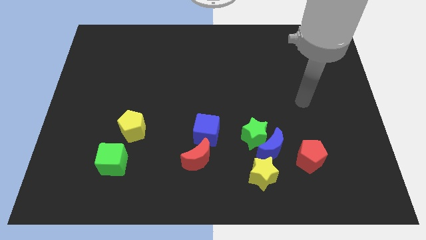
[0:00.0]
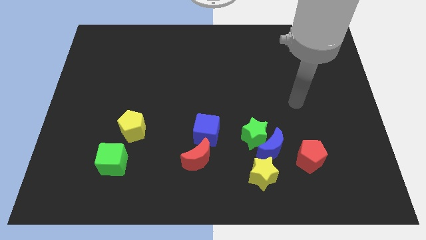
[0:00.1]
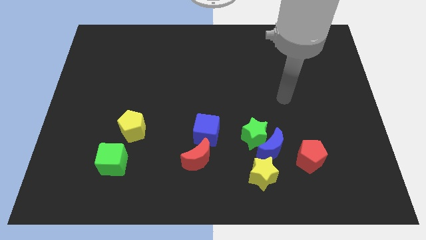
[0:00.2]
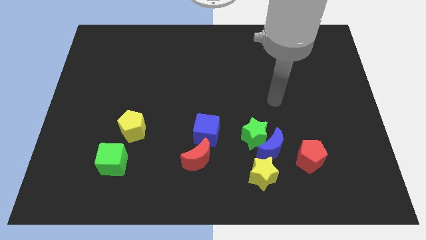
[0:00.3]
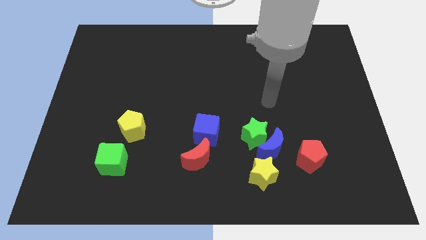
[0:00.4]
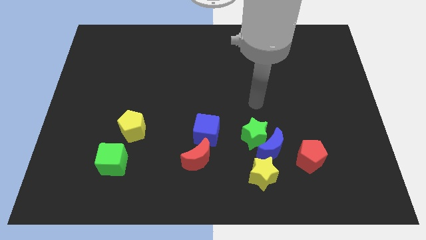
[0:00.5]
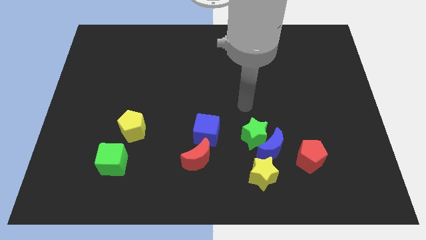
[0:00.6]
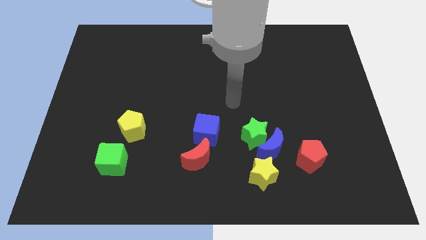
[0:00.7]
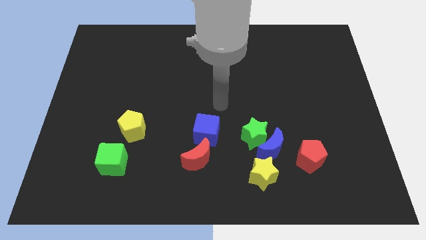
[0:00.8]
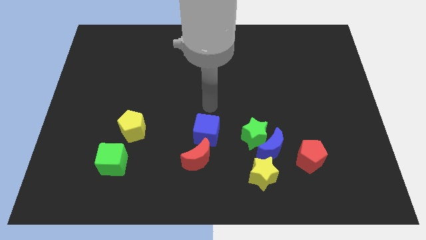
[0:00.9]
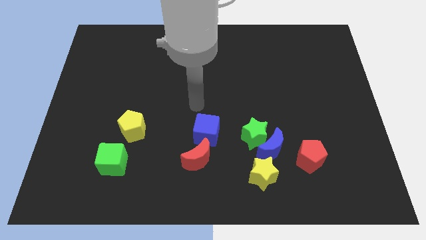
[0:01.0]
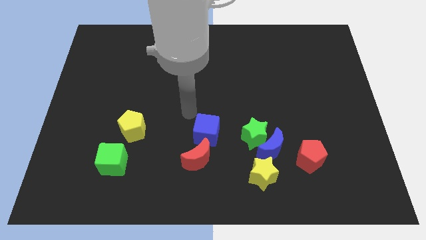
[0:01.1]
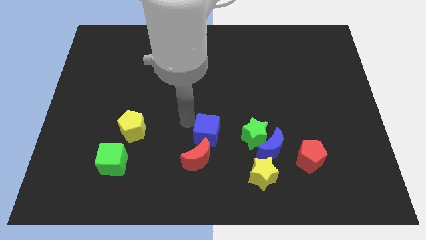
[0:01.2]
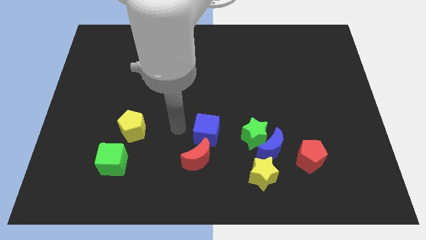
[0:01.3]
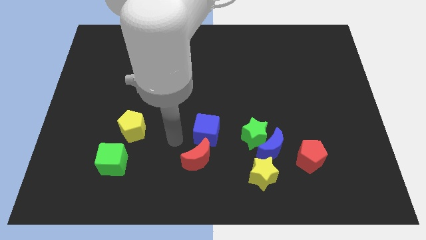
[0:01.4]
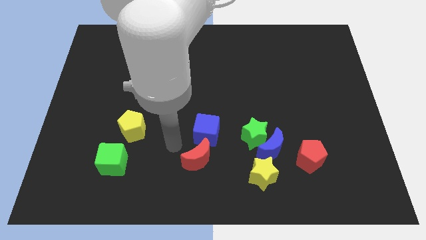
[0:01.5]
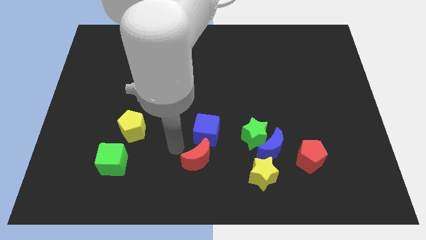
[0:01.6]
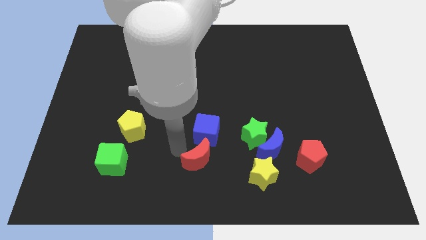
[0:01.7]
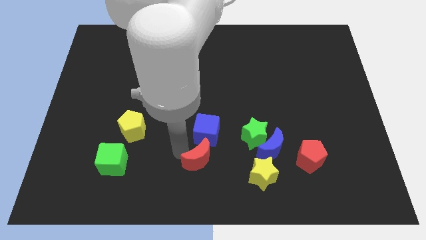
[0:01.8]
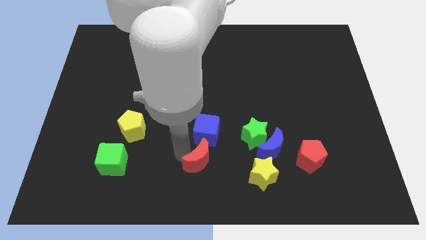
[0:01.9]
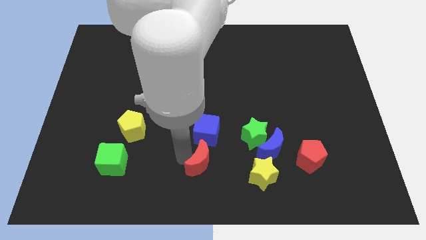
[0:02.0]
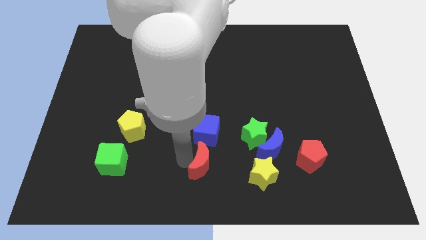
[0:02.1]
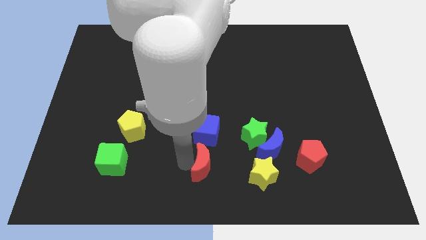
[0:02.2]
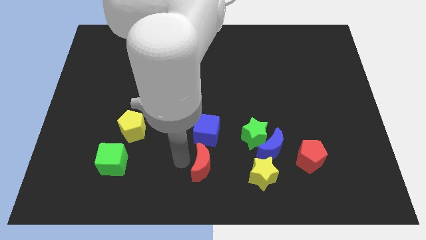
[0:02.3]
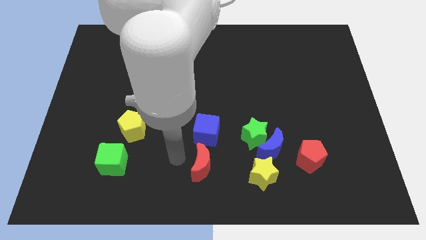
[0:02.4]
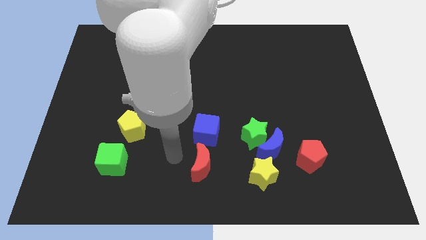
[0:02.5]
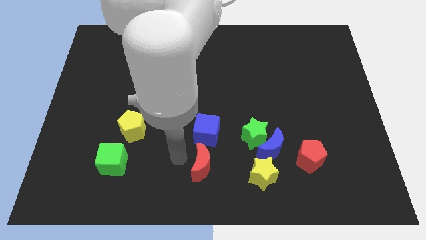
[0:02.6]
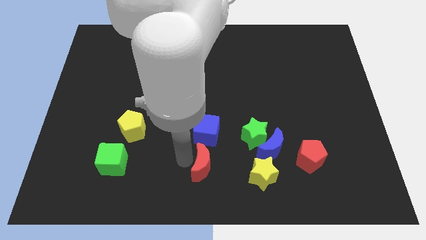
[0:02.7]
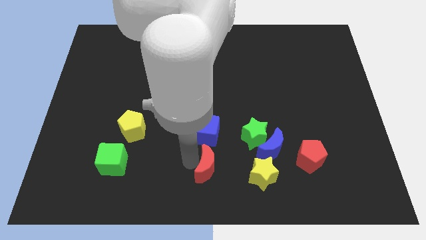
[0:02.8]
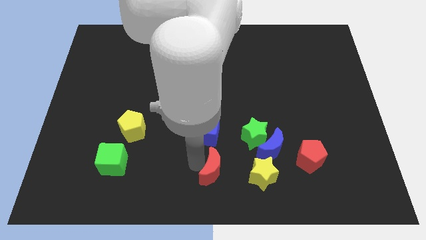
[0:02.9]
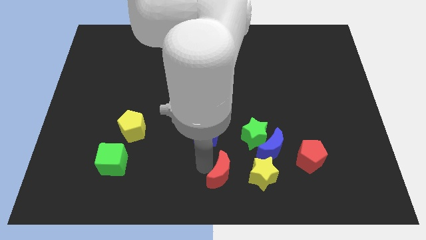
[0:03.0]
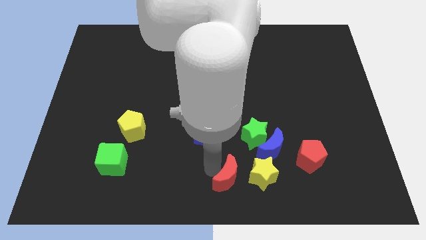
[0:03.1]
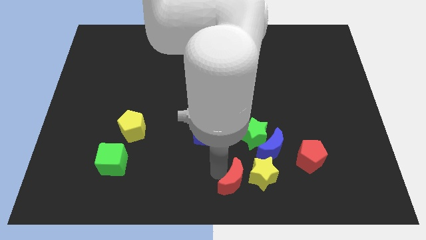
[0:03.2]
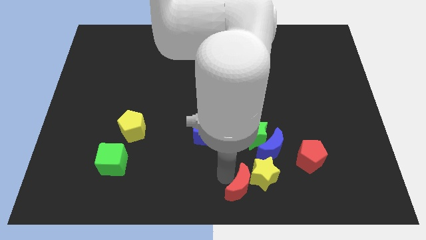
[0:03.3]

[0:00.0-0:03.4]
slide the red moon right slightly

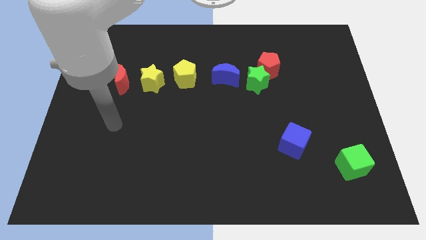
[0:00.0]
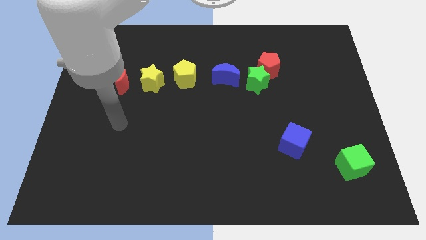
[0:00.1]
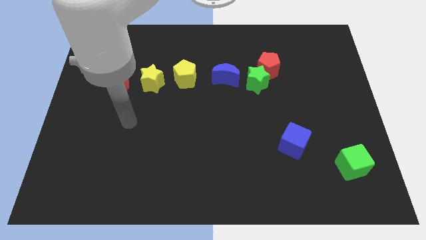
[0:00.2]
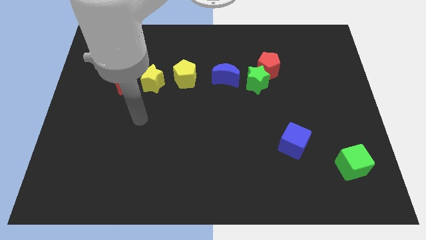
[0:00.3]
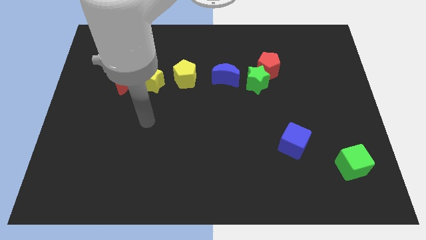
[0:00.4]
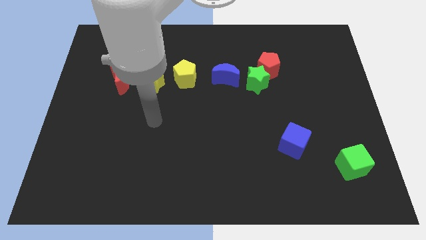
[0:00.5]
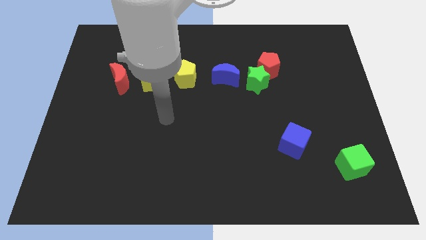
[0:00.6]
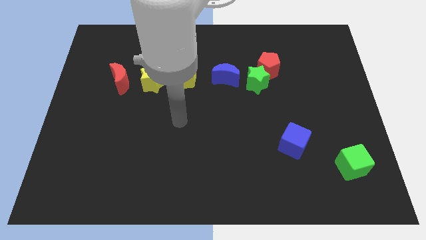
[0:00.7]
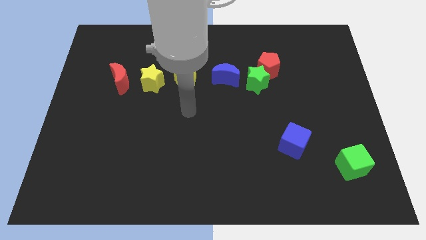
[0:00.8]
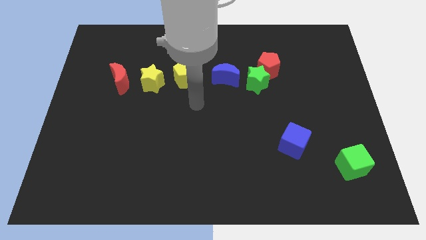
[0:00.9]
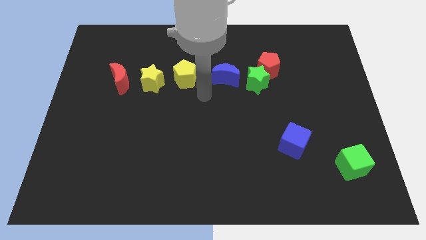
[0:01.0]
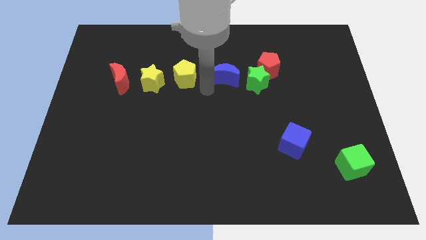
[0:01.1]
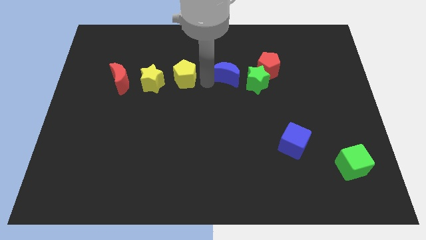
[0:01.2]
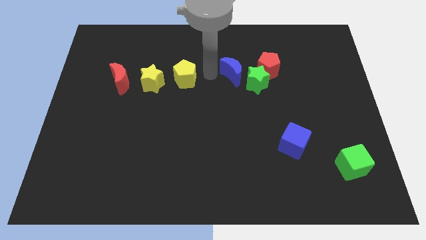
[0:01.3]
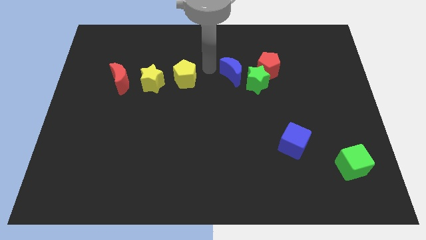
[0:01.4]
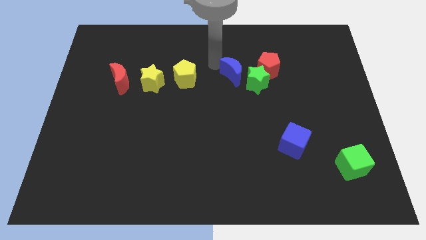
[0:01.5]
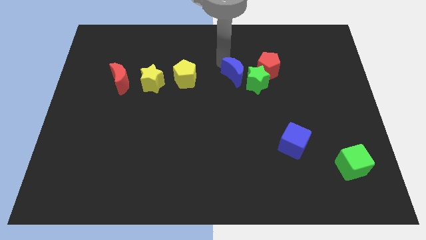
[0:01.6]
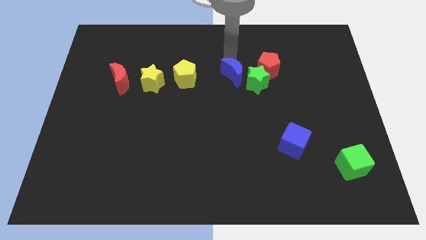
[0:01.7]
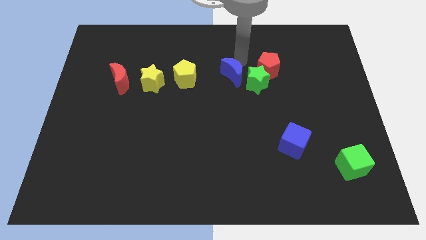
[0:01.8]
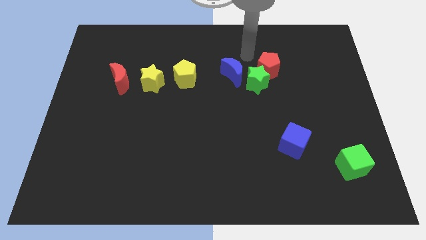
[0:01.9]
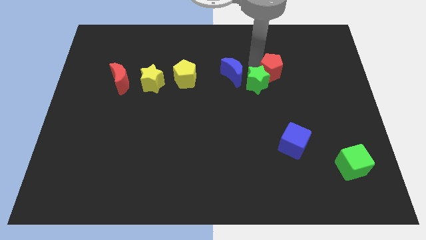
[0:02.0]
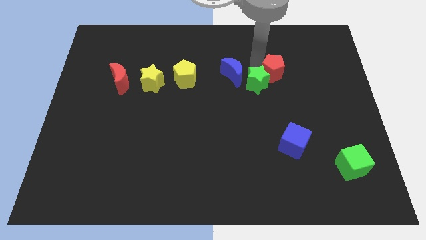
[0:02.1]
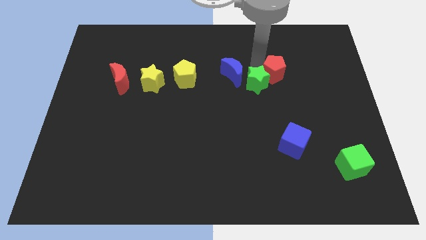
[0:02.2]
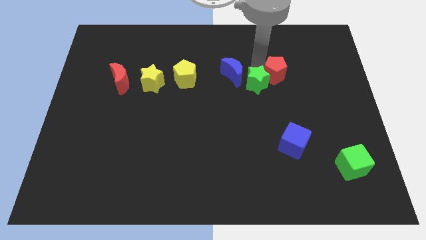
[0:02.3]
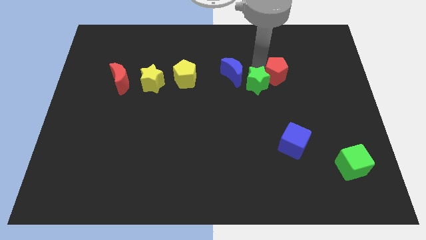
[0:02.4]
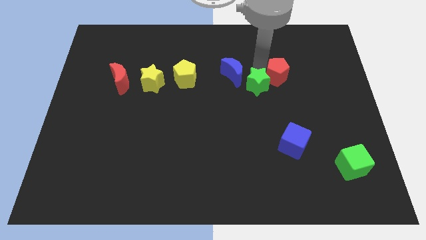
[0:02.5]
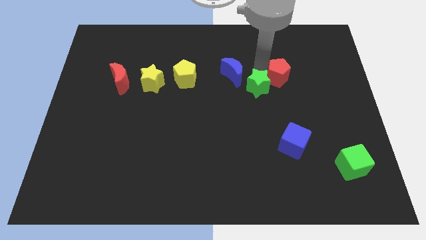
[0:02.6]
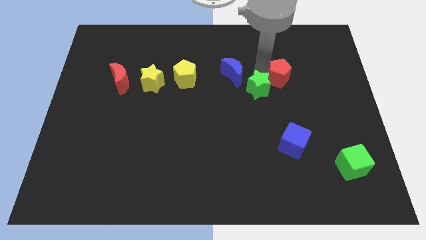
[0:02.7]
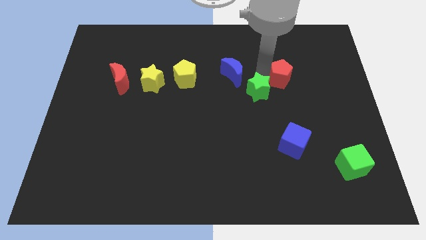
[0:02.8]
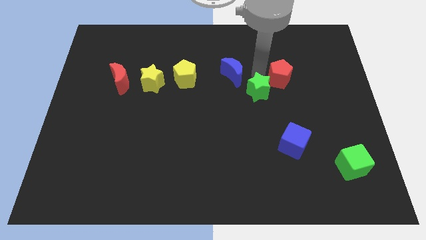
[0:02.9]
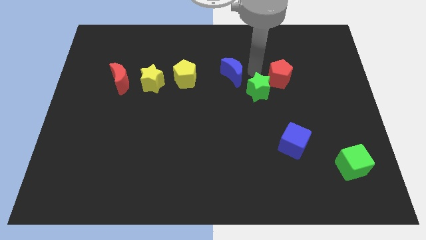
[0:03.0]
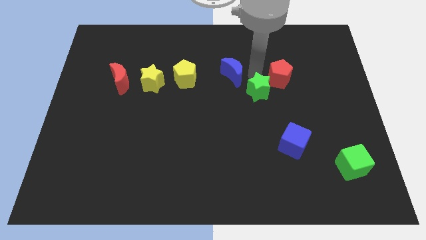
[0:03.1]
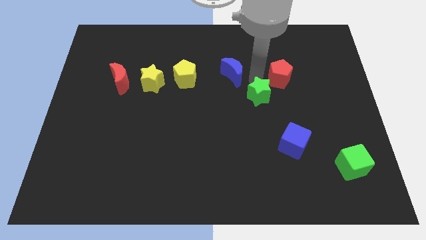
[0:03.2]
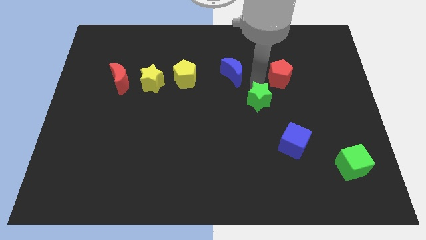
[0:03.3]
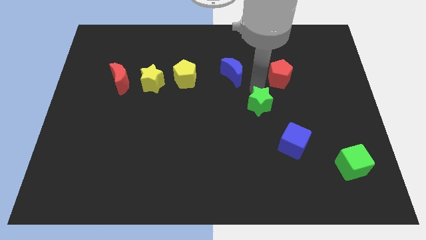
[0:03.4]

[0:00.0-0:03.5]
push the green star downwards a little bit
